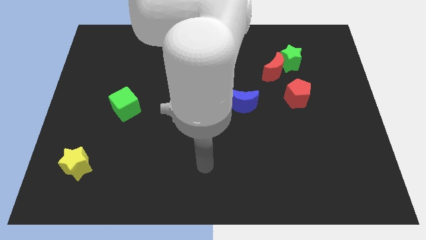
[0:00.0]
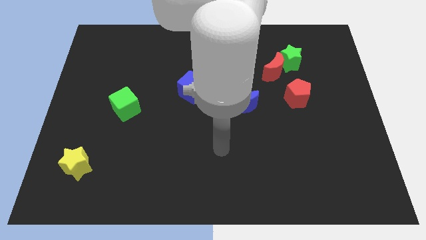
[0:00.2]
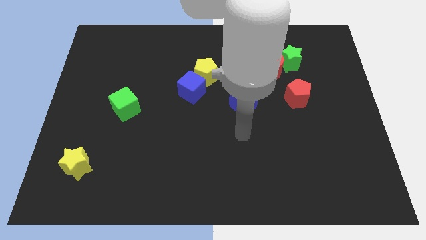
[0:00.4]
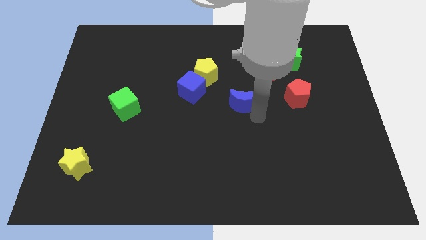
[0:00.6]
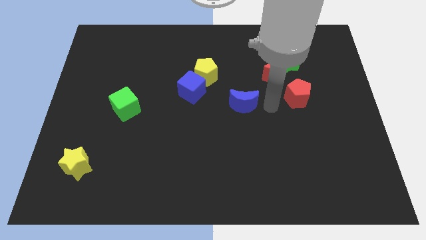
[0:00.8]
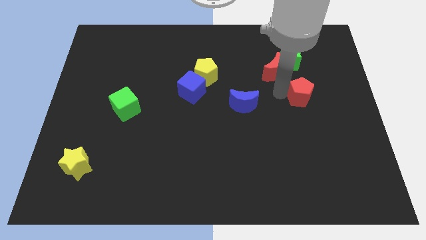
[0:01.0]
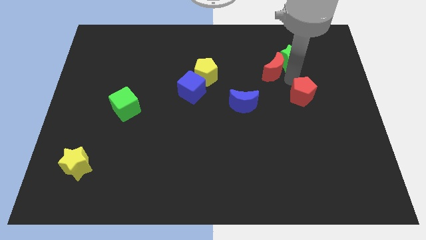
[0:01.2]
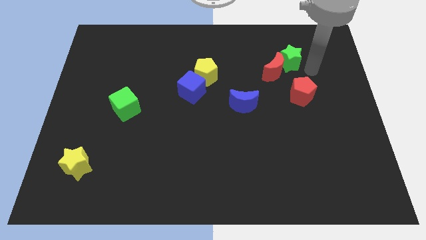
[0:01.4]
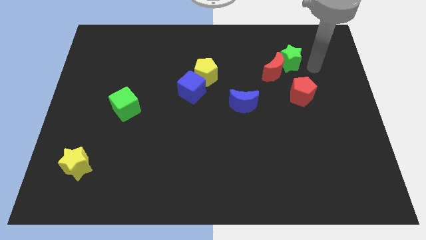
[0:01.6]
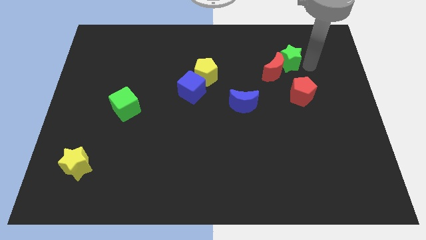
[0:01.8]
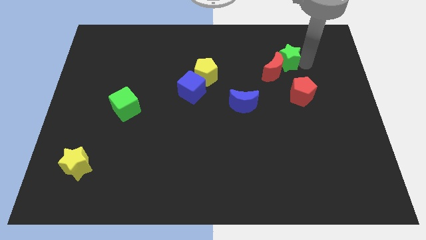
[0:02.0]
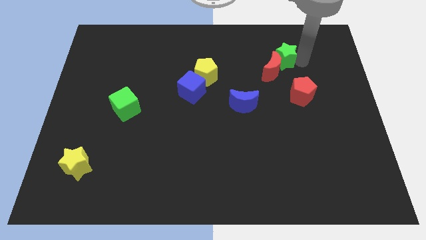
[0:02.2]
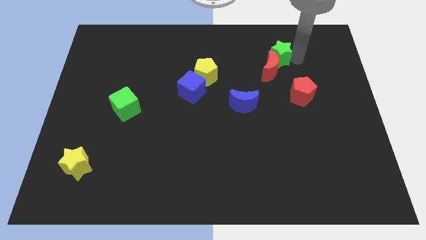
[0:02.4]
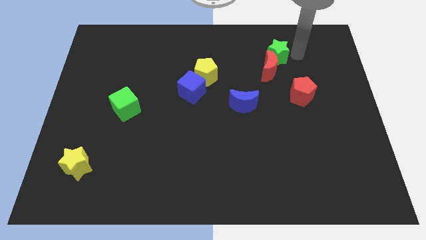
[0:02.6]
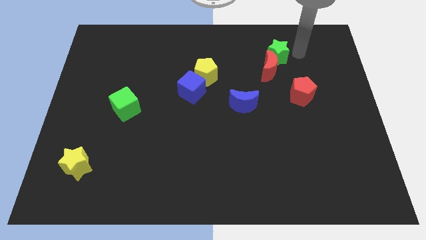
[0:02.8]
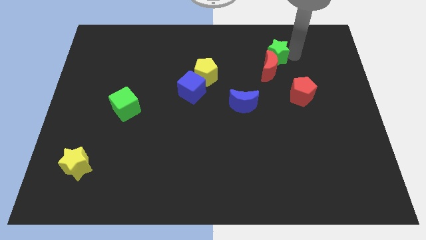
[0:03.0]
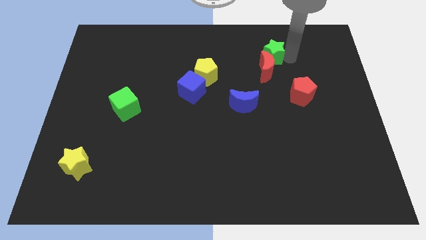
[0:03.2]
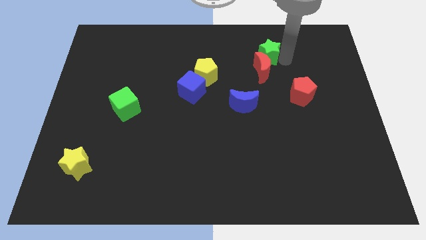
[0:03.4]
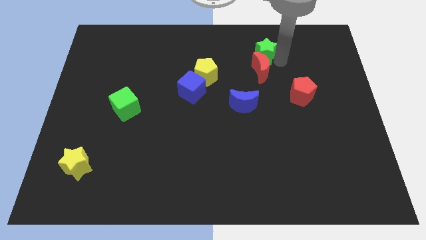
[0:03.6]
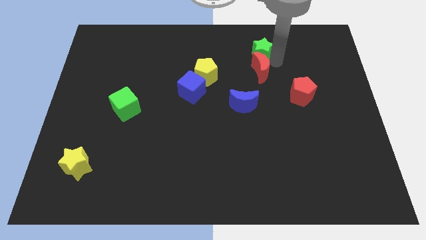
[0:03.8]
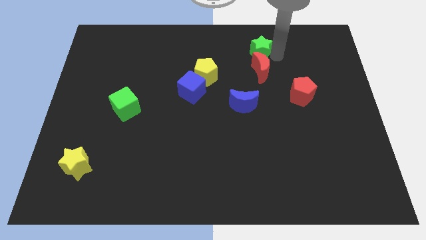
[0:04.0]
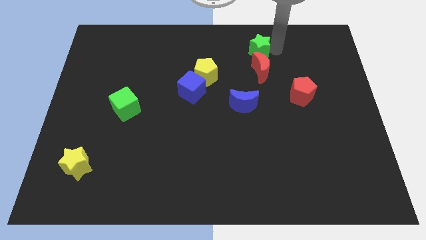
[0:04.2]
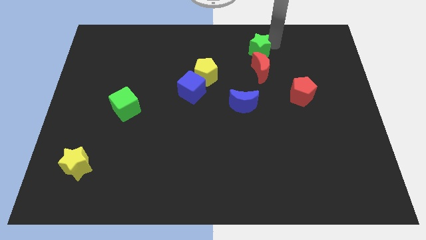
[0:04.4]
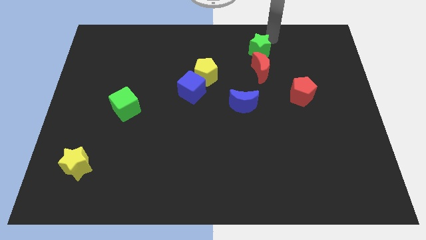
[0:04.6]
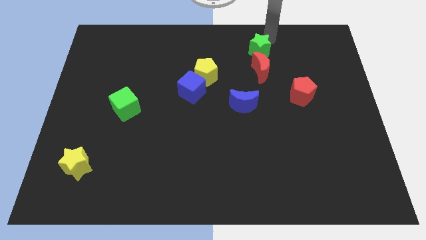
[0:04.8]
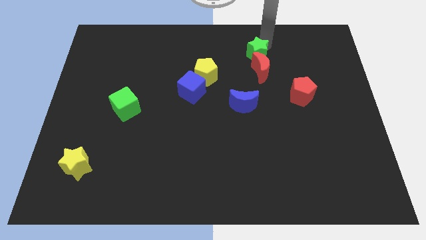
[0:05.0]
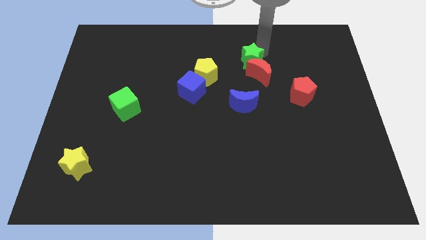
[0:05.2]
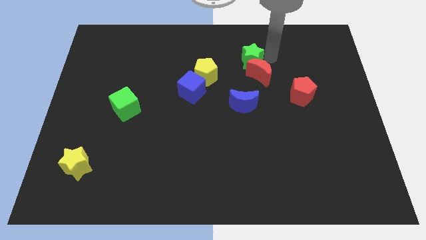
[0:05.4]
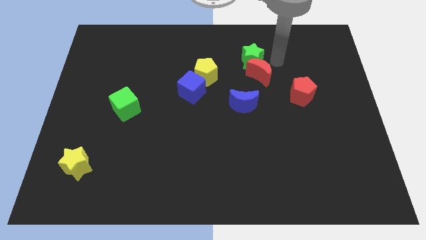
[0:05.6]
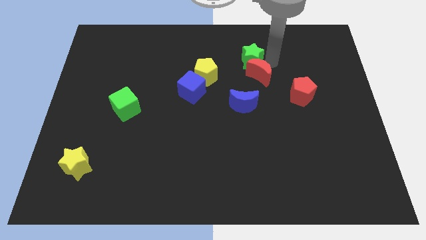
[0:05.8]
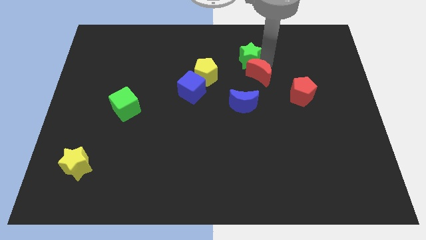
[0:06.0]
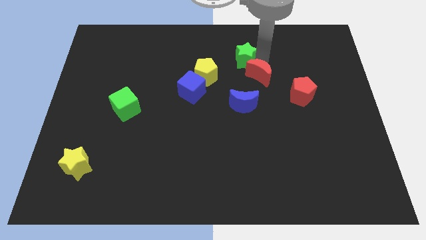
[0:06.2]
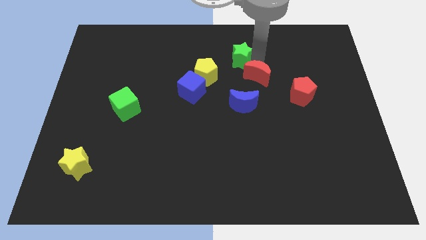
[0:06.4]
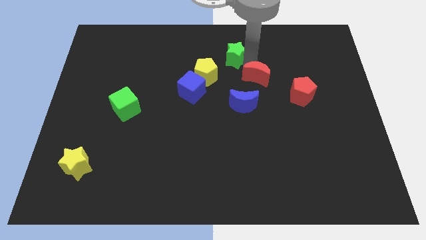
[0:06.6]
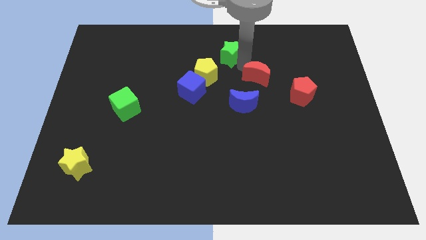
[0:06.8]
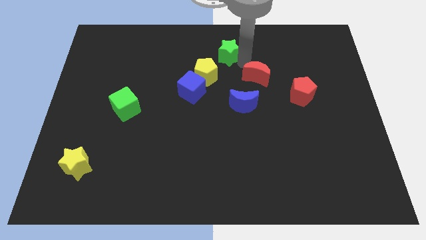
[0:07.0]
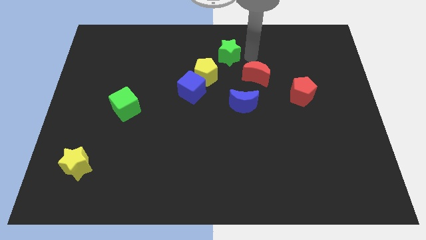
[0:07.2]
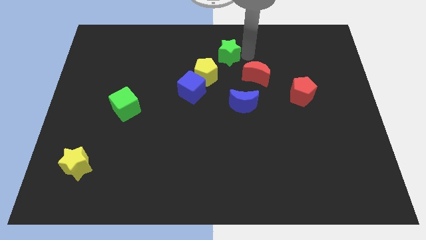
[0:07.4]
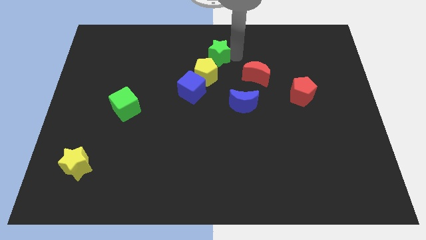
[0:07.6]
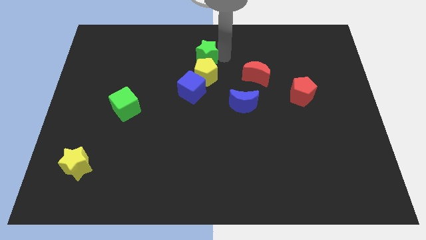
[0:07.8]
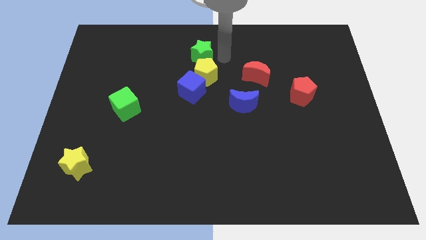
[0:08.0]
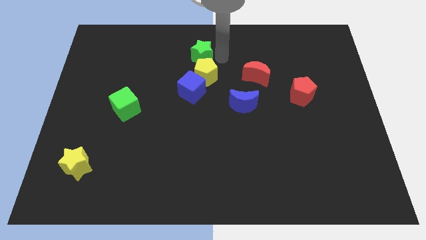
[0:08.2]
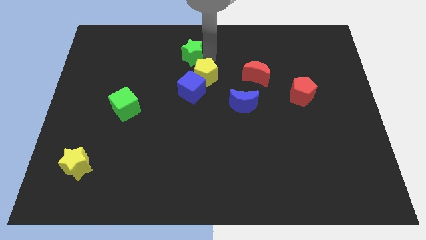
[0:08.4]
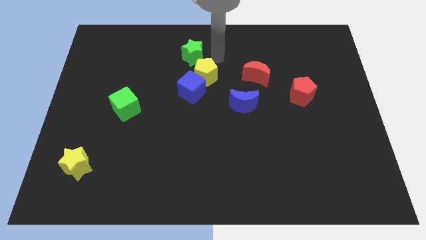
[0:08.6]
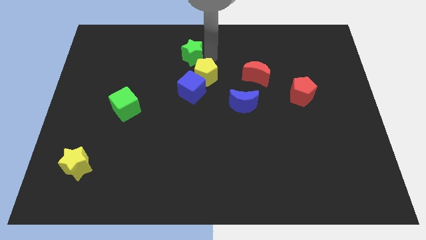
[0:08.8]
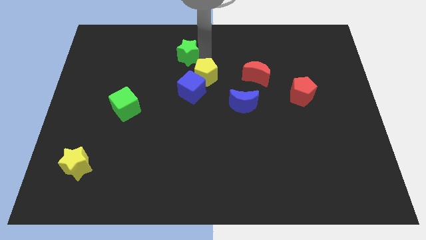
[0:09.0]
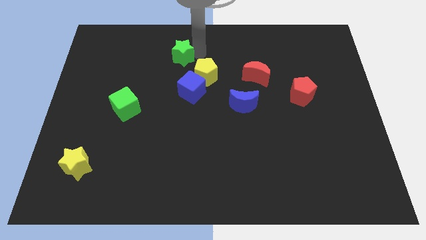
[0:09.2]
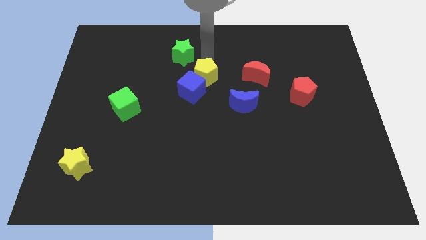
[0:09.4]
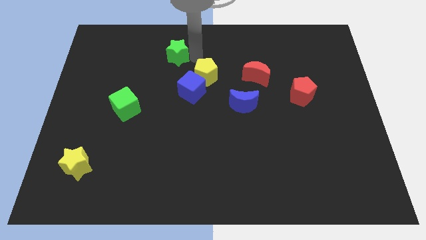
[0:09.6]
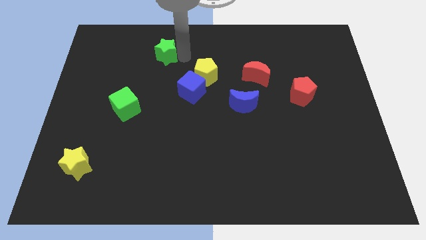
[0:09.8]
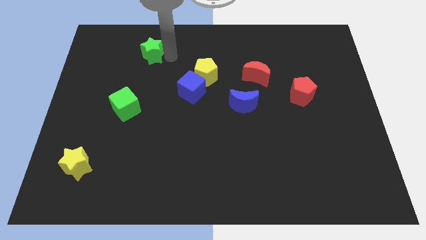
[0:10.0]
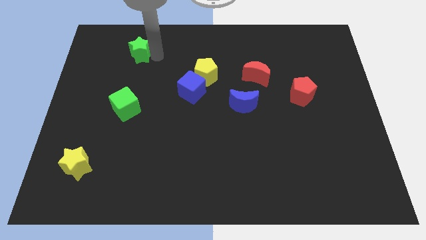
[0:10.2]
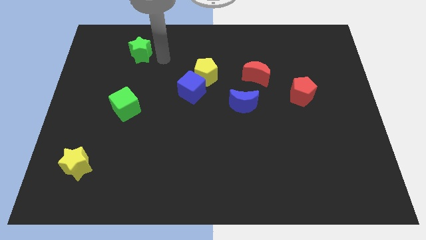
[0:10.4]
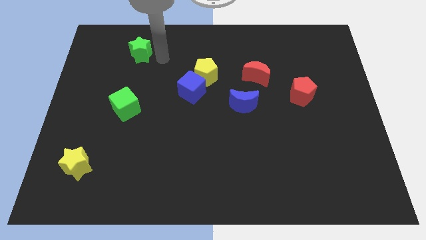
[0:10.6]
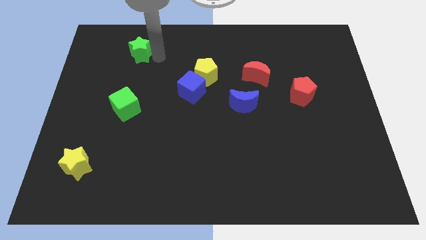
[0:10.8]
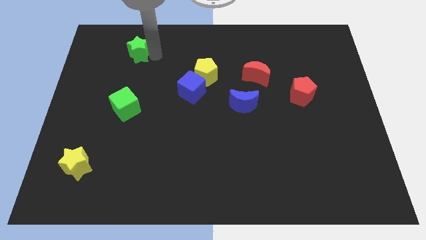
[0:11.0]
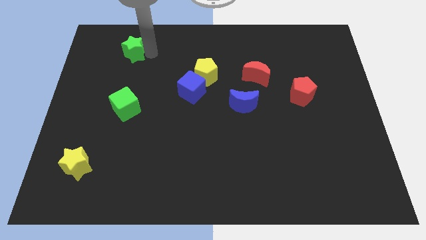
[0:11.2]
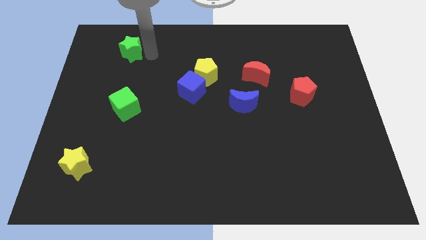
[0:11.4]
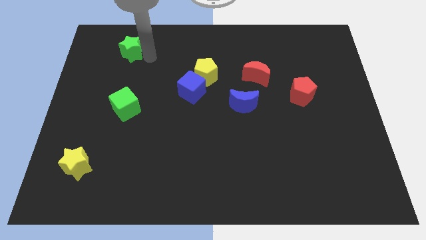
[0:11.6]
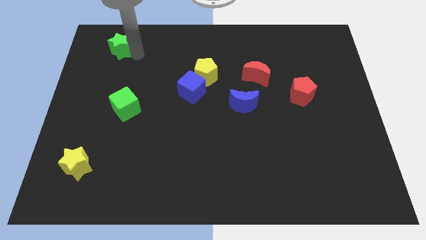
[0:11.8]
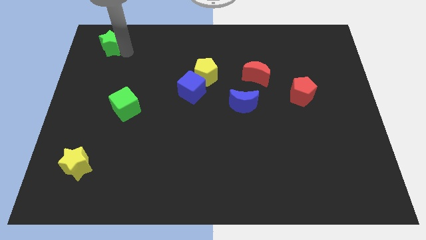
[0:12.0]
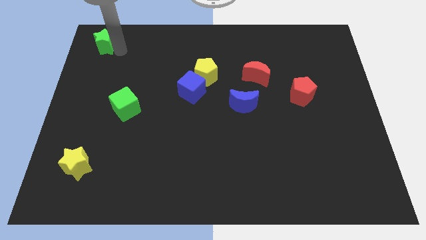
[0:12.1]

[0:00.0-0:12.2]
slide the green star to the top left
